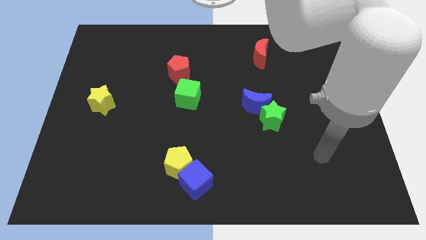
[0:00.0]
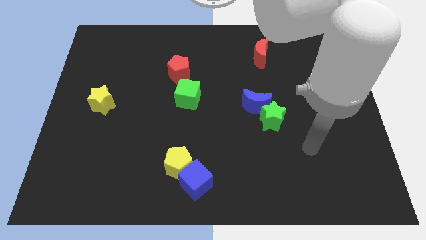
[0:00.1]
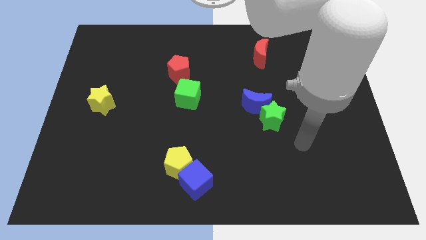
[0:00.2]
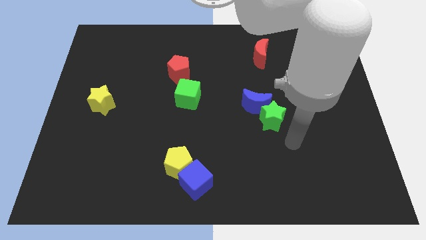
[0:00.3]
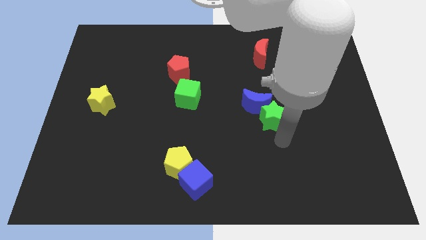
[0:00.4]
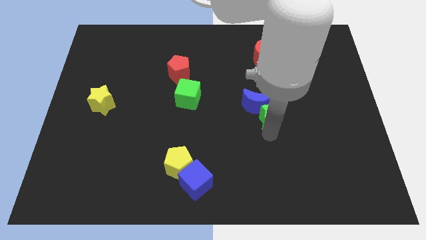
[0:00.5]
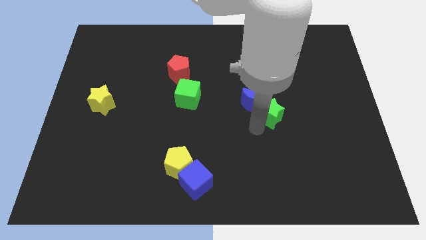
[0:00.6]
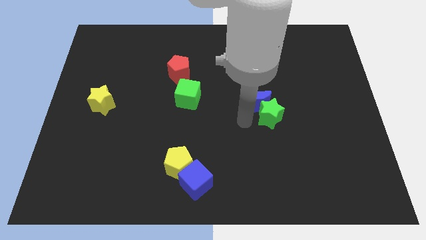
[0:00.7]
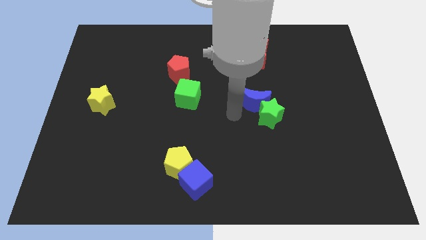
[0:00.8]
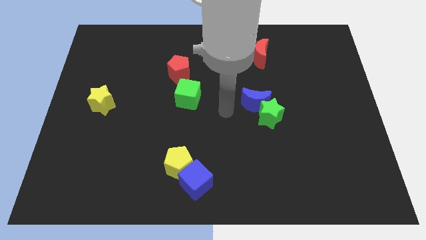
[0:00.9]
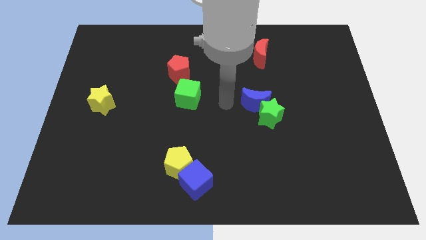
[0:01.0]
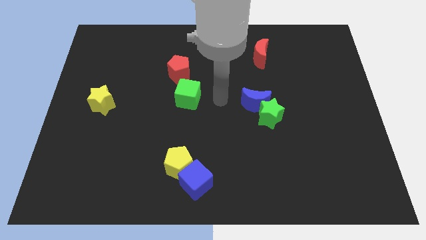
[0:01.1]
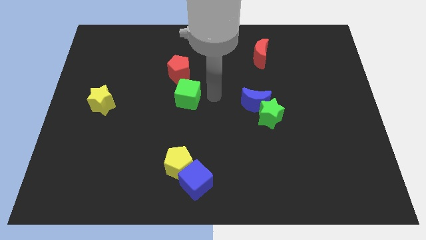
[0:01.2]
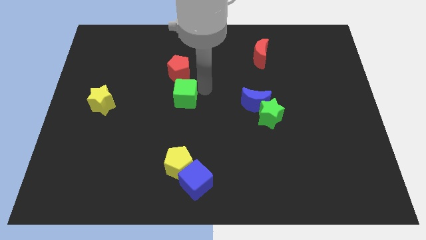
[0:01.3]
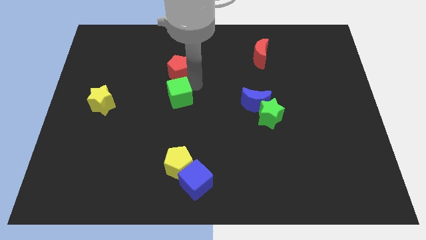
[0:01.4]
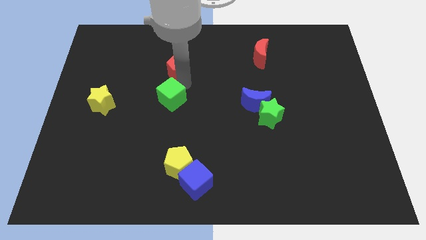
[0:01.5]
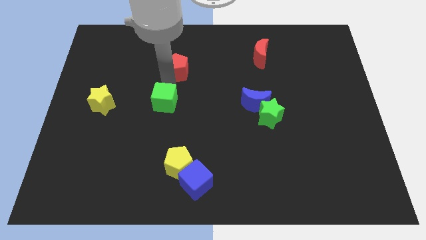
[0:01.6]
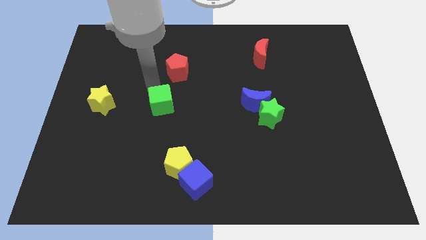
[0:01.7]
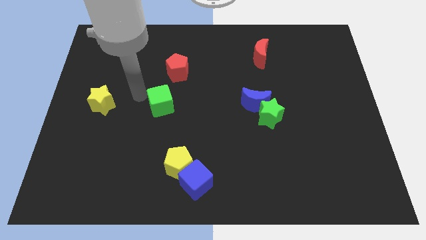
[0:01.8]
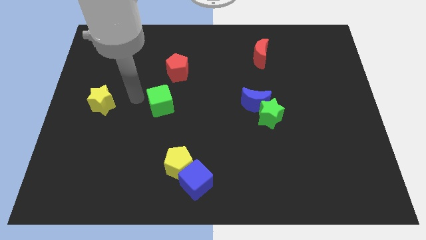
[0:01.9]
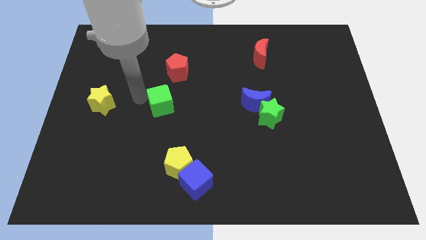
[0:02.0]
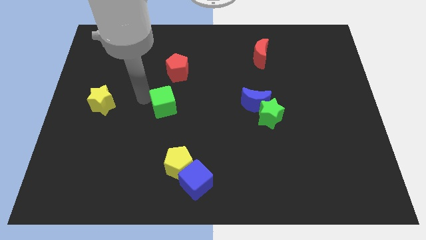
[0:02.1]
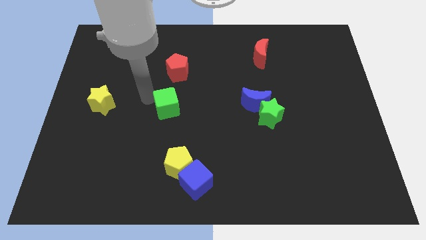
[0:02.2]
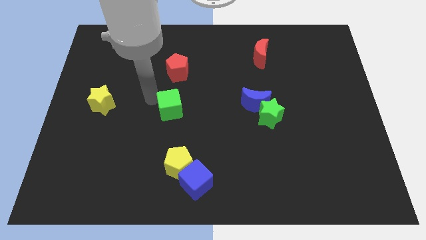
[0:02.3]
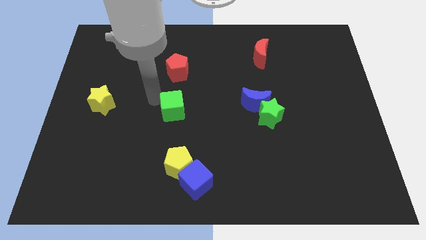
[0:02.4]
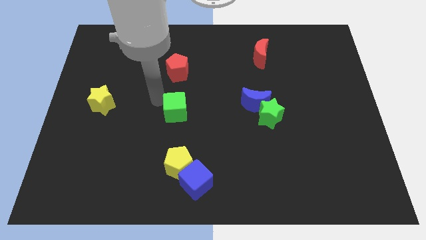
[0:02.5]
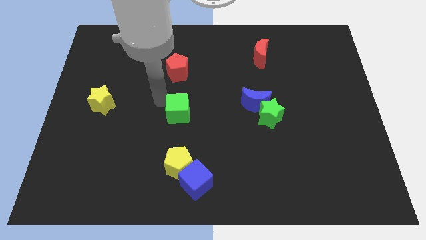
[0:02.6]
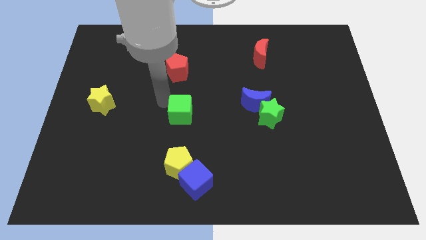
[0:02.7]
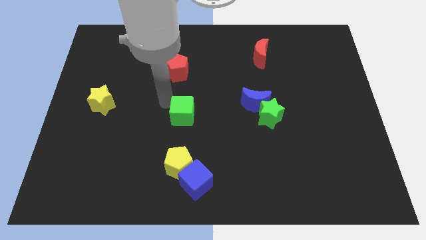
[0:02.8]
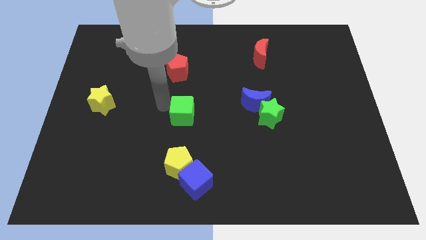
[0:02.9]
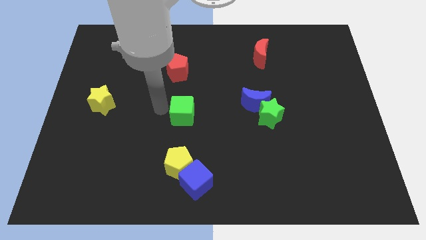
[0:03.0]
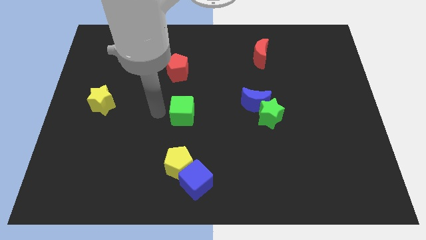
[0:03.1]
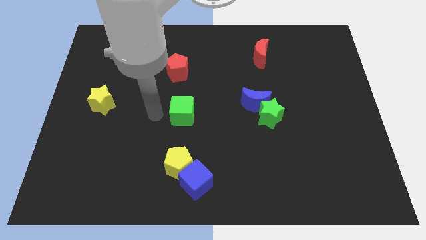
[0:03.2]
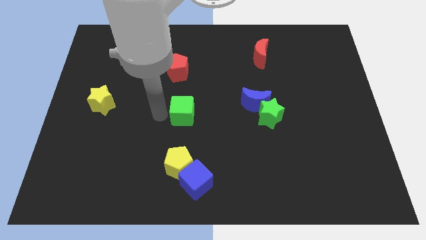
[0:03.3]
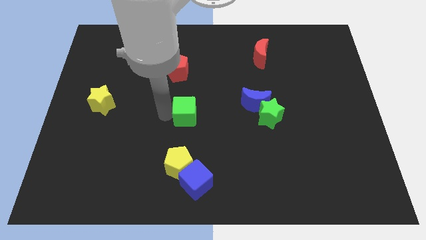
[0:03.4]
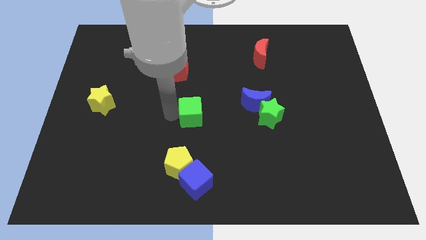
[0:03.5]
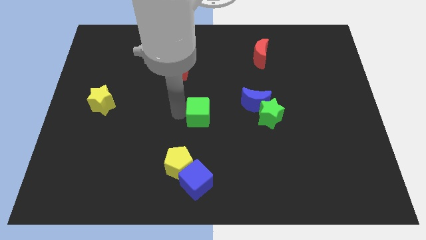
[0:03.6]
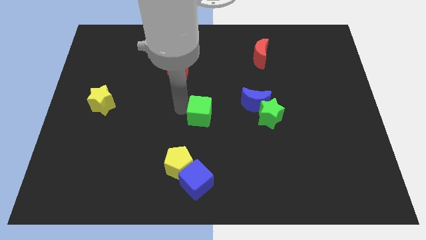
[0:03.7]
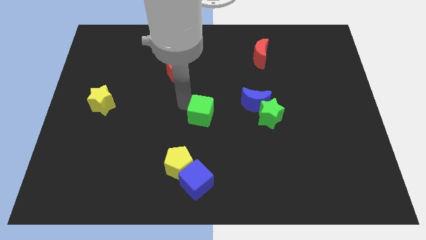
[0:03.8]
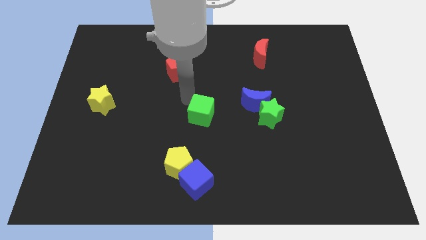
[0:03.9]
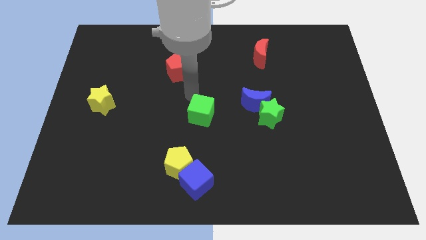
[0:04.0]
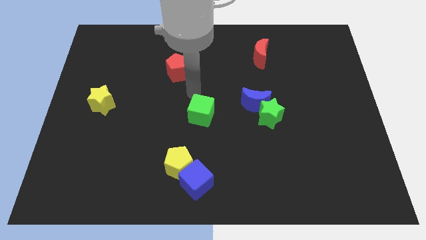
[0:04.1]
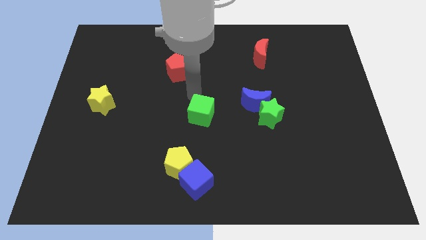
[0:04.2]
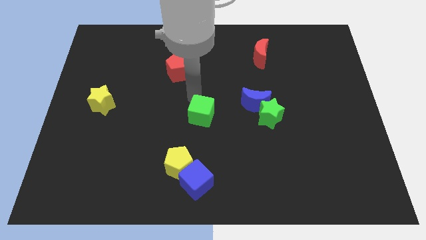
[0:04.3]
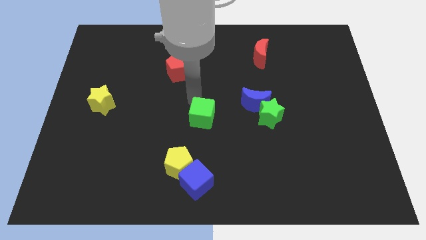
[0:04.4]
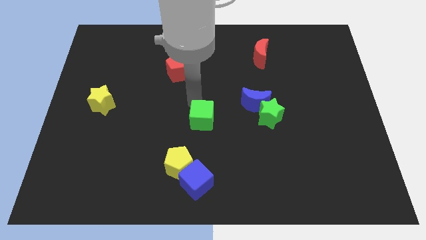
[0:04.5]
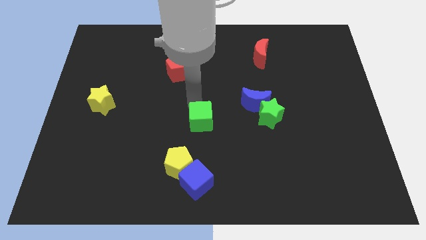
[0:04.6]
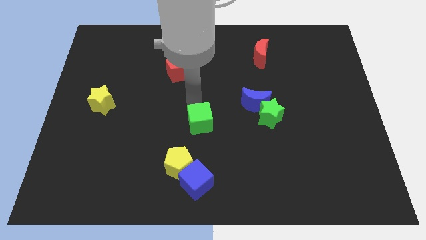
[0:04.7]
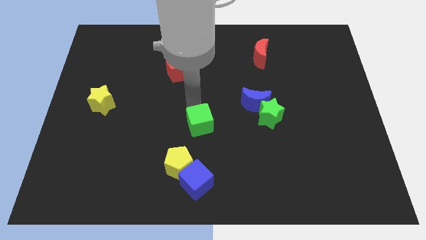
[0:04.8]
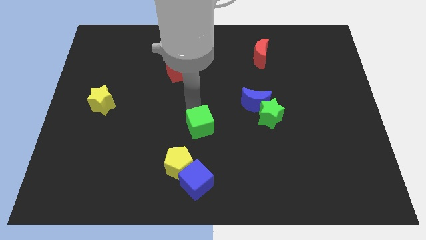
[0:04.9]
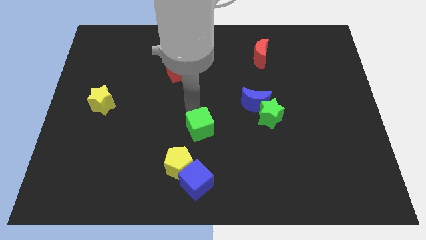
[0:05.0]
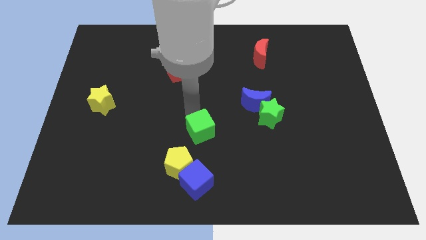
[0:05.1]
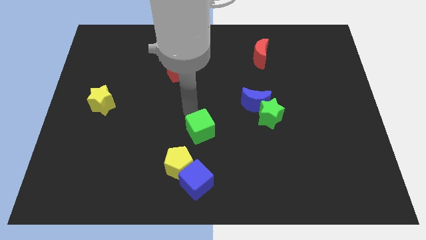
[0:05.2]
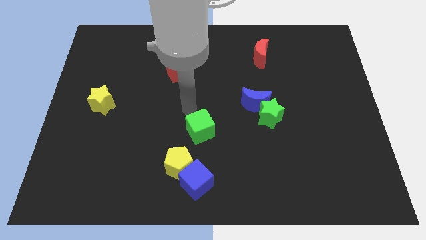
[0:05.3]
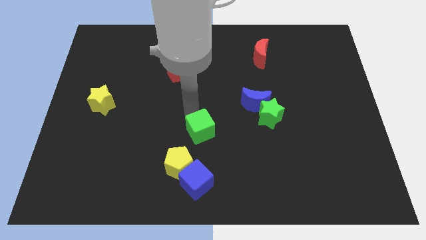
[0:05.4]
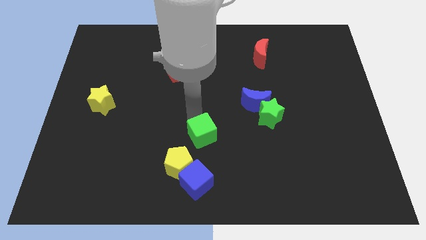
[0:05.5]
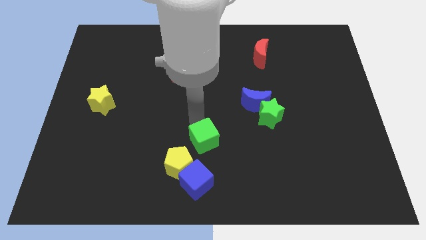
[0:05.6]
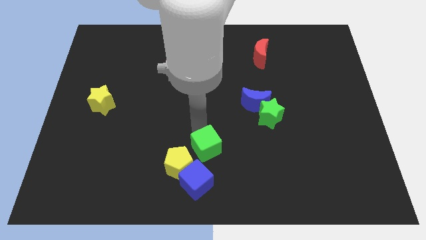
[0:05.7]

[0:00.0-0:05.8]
put the green cube diagonally up and to the right of the blue cube

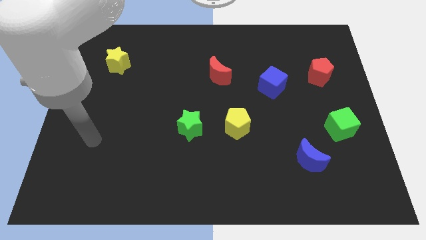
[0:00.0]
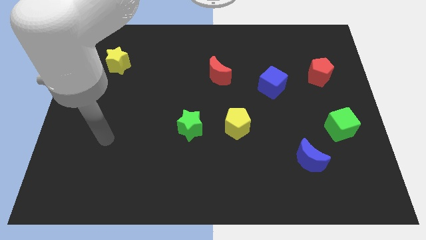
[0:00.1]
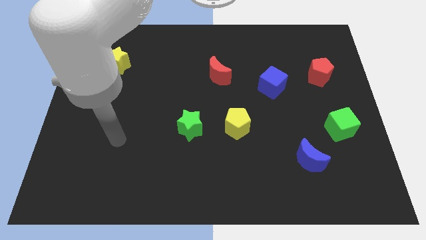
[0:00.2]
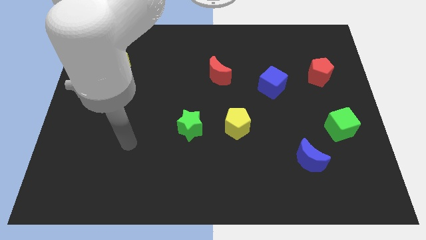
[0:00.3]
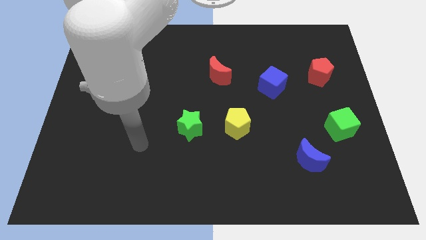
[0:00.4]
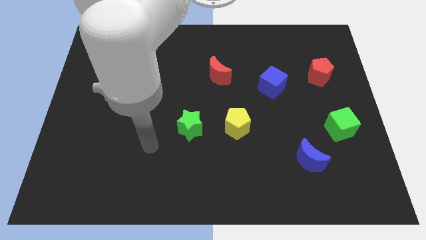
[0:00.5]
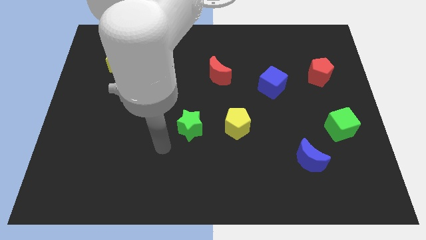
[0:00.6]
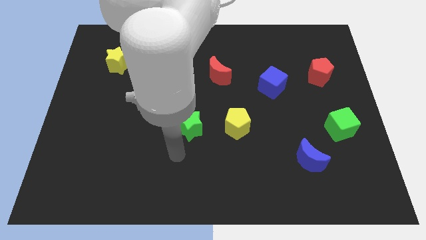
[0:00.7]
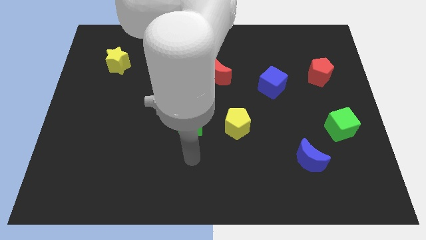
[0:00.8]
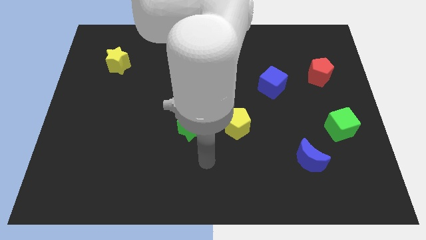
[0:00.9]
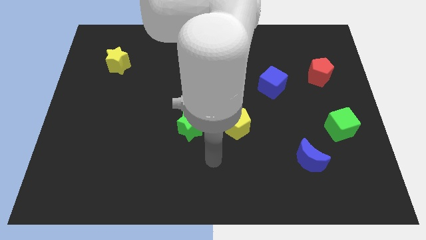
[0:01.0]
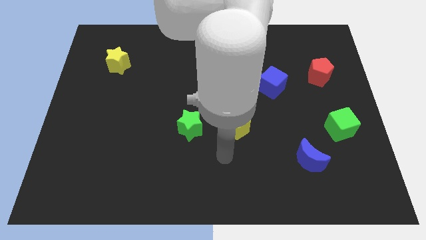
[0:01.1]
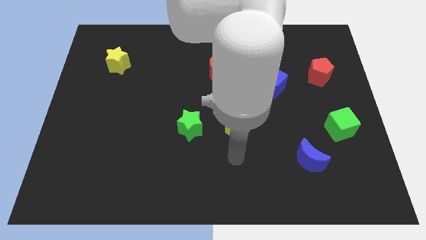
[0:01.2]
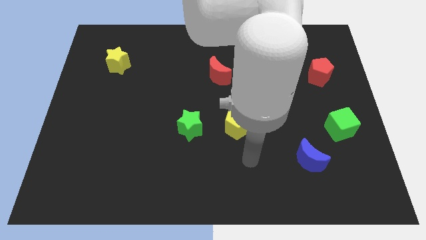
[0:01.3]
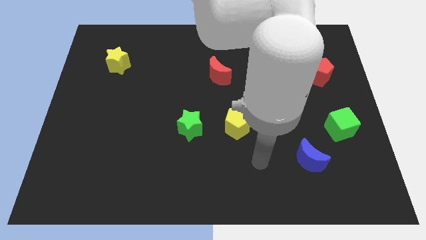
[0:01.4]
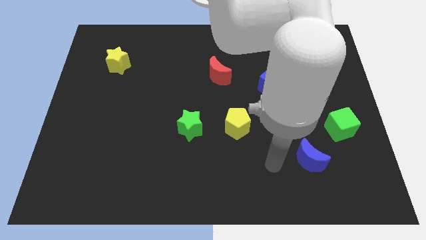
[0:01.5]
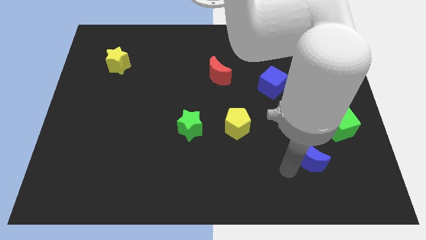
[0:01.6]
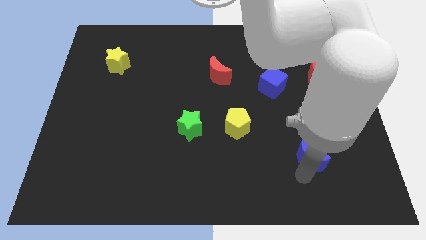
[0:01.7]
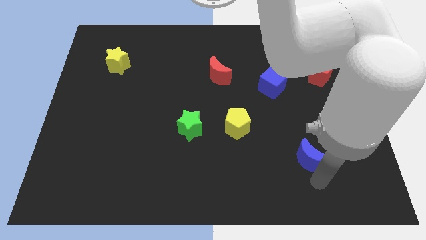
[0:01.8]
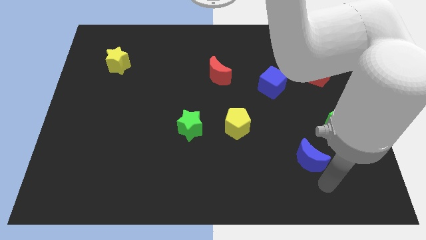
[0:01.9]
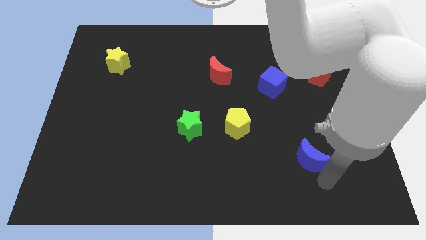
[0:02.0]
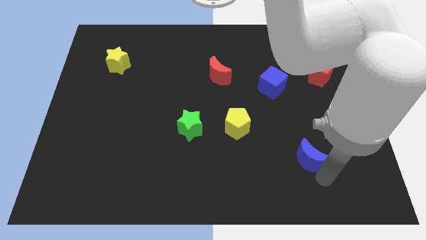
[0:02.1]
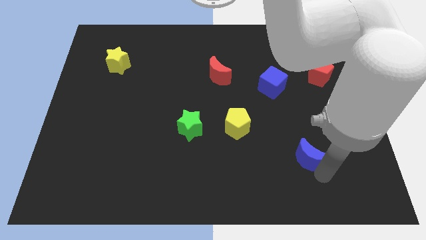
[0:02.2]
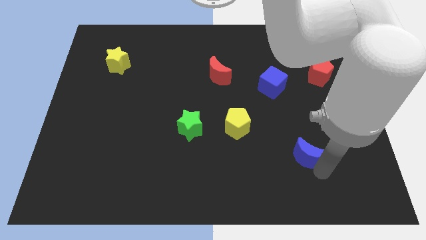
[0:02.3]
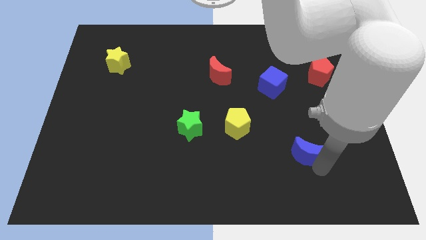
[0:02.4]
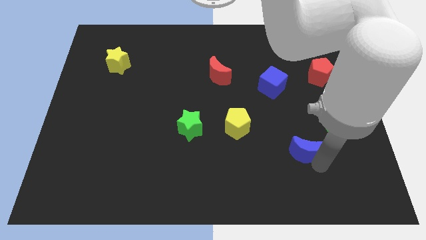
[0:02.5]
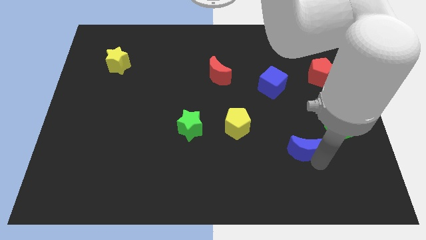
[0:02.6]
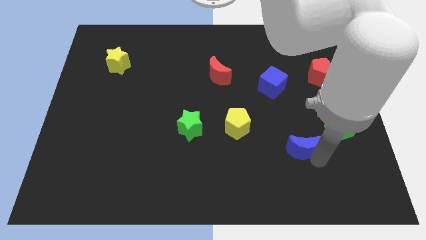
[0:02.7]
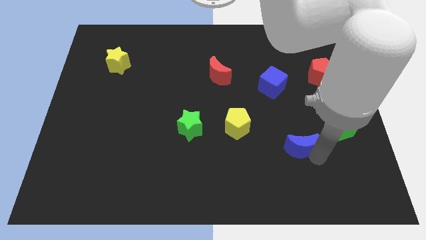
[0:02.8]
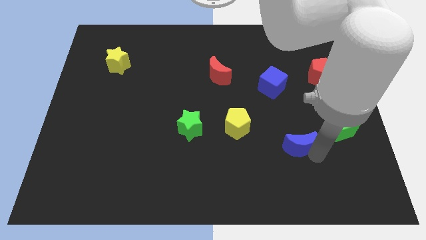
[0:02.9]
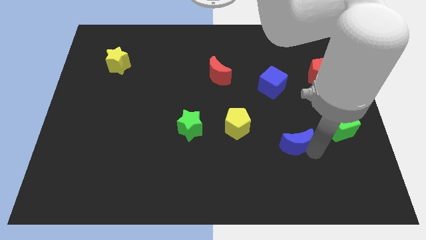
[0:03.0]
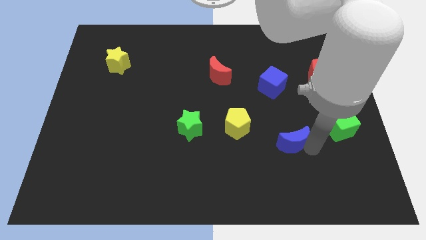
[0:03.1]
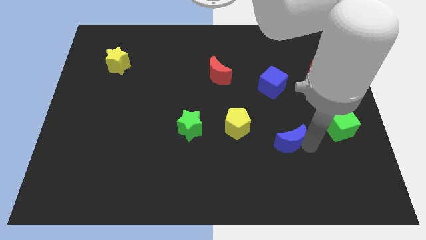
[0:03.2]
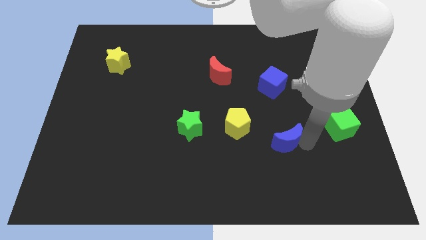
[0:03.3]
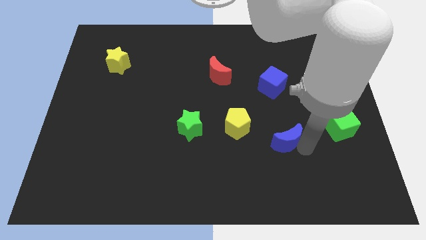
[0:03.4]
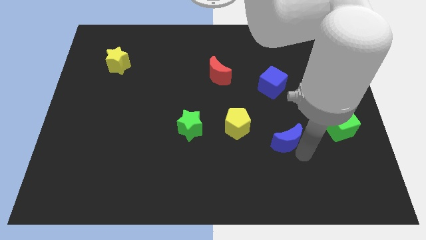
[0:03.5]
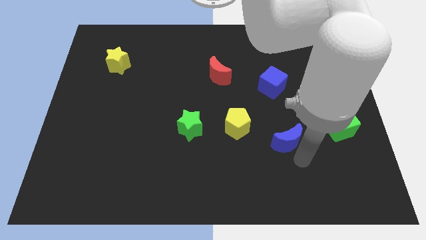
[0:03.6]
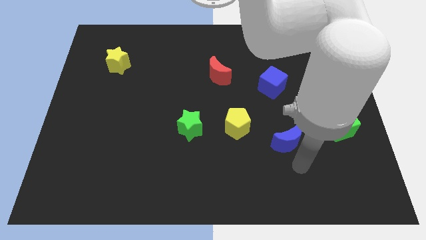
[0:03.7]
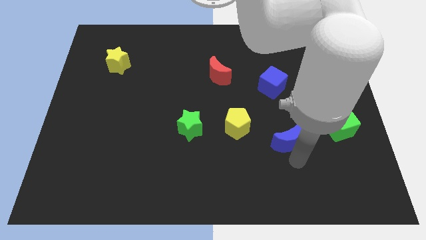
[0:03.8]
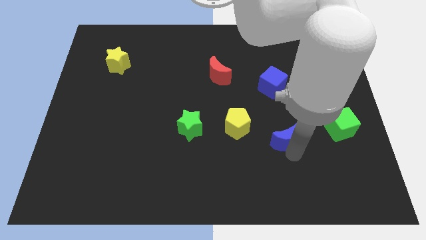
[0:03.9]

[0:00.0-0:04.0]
put the blue moon below the blue cube
